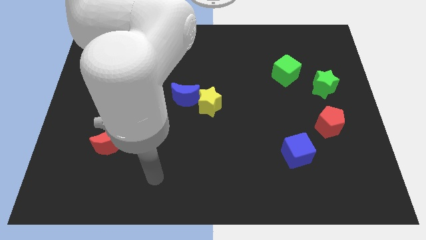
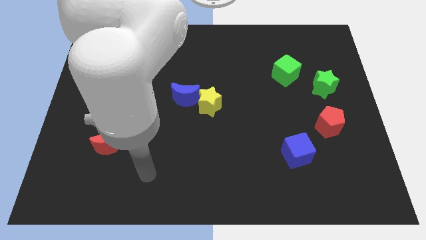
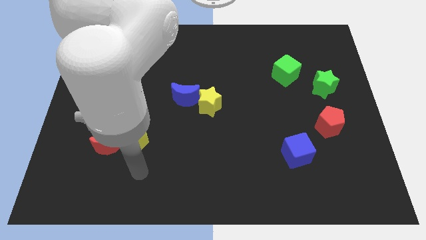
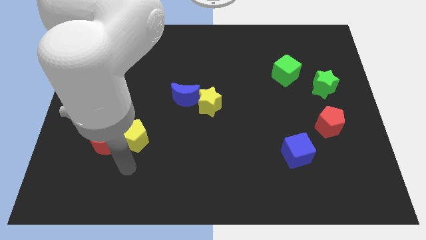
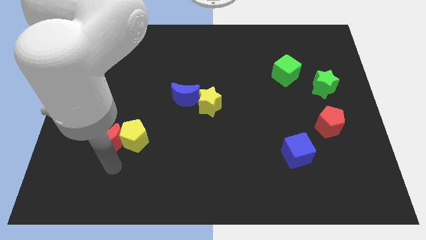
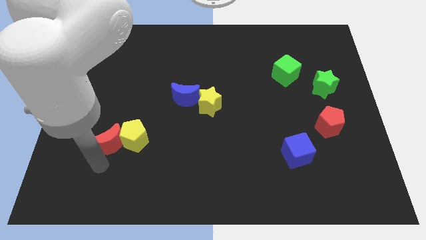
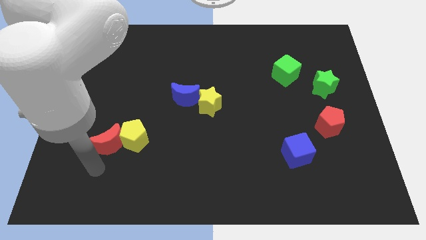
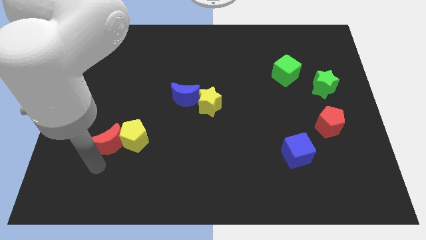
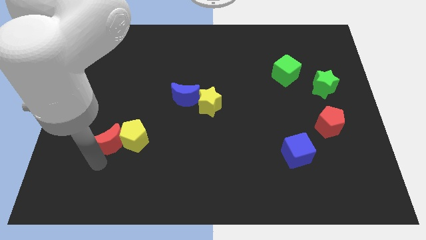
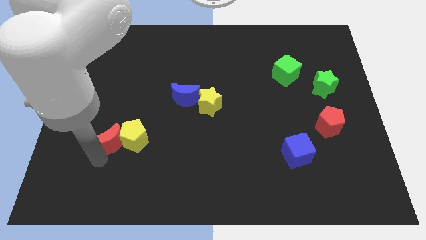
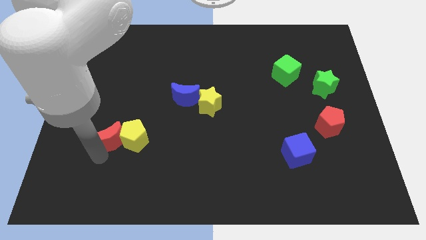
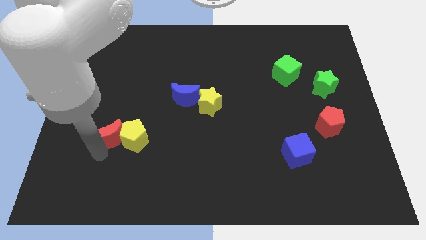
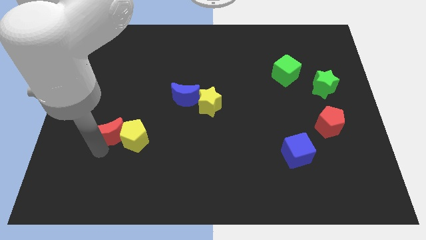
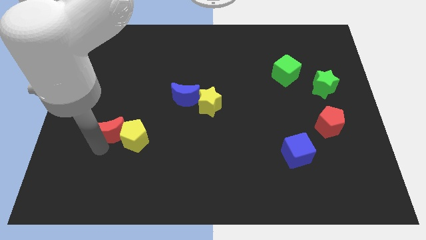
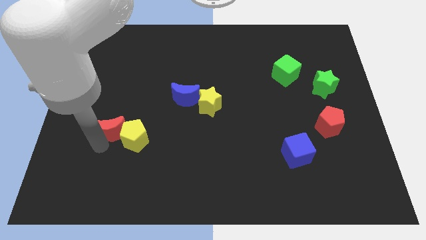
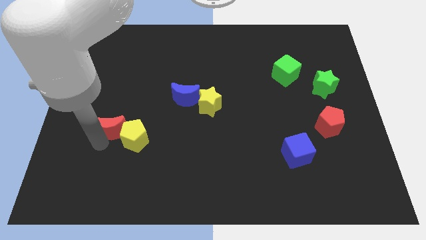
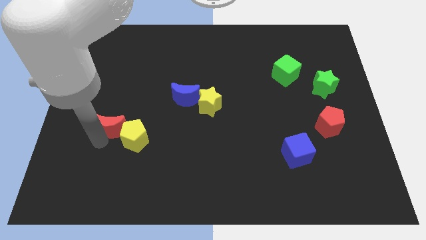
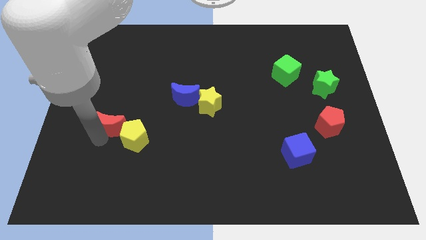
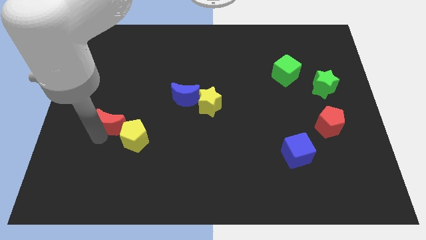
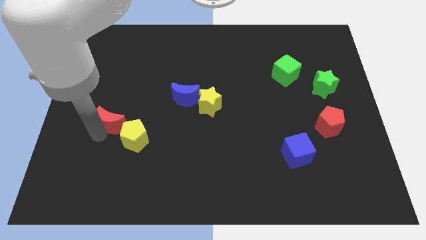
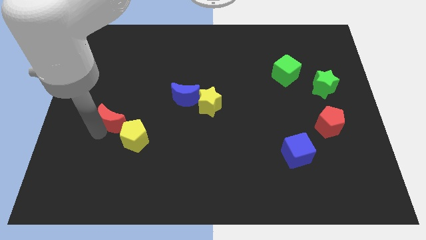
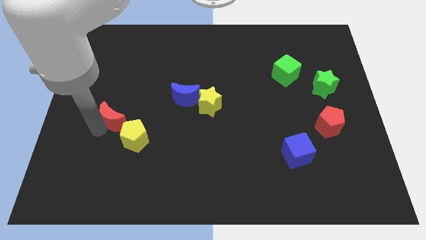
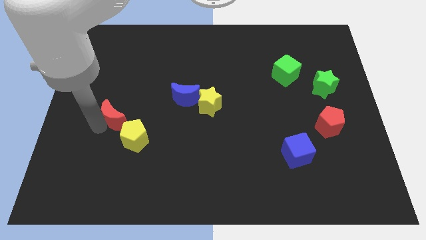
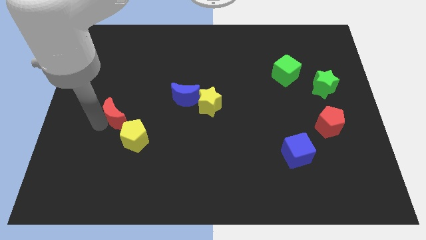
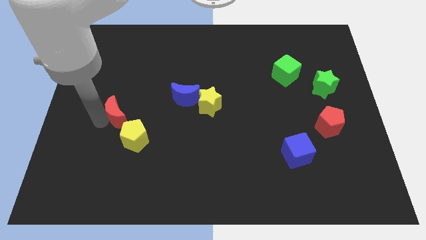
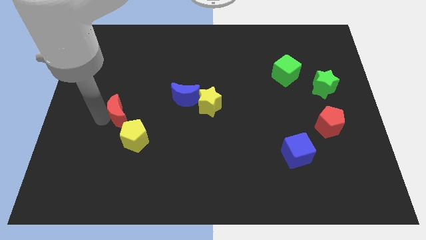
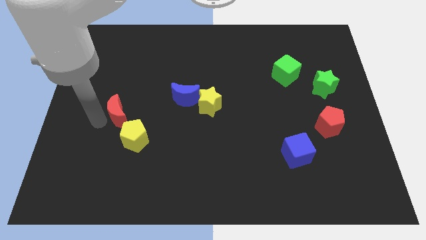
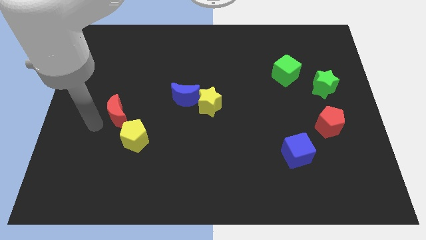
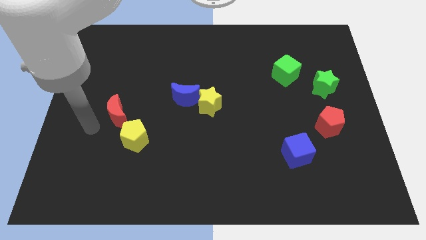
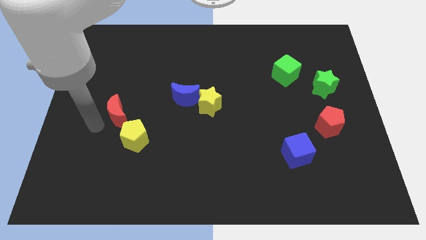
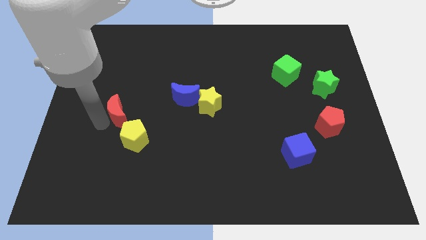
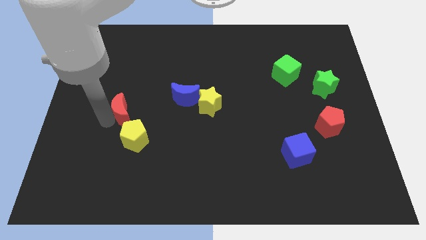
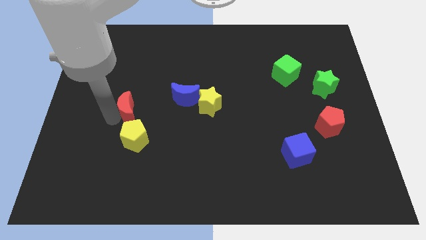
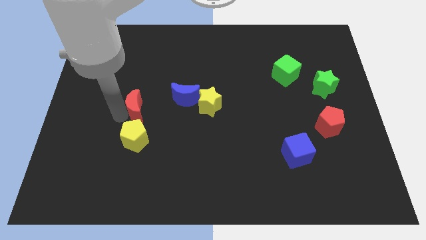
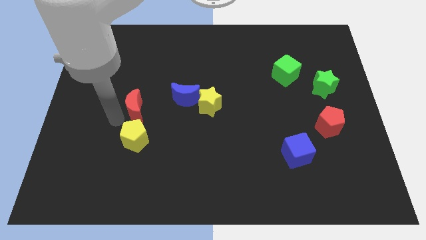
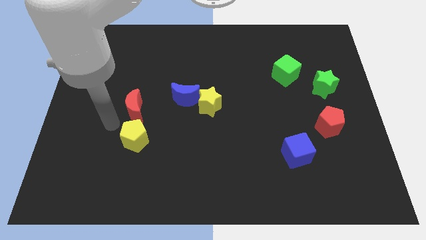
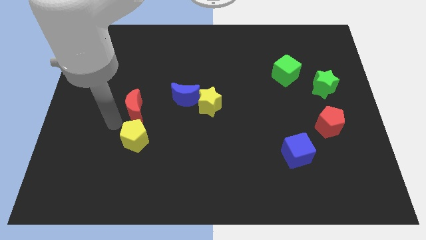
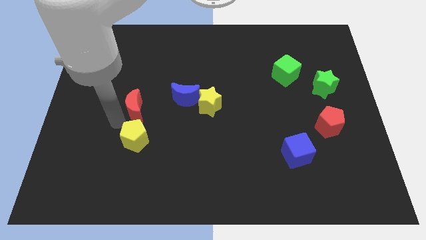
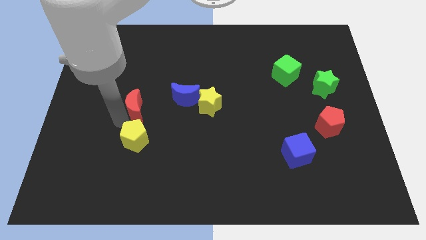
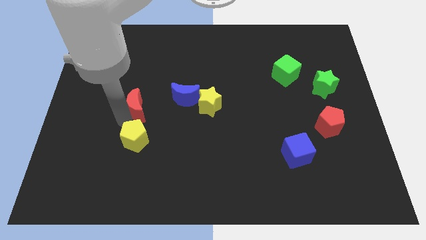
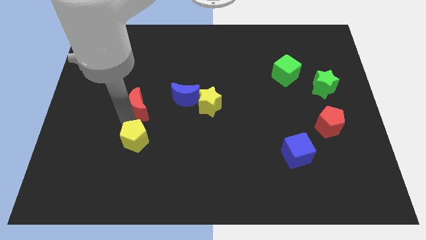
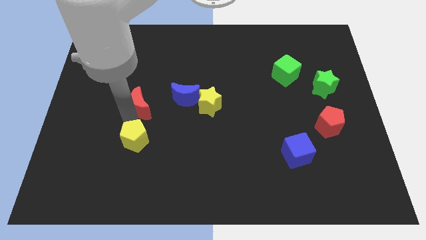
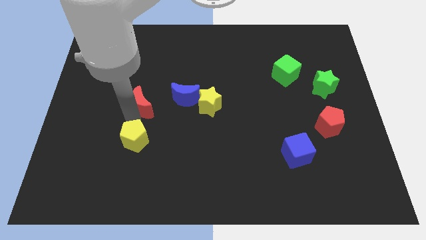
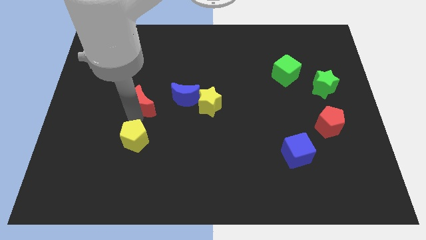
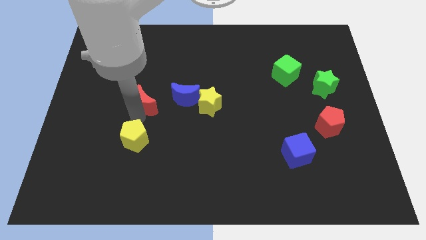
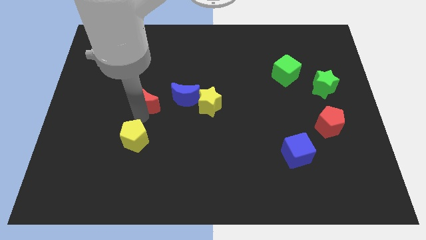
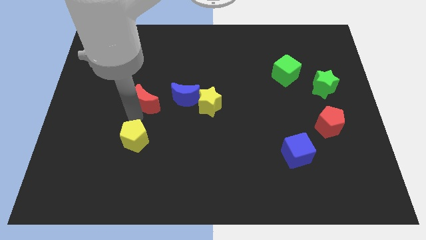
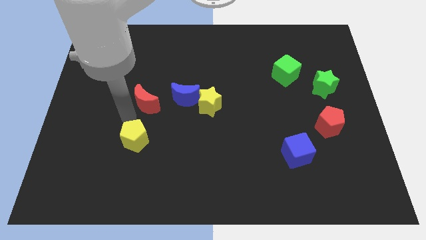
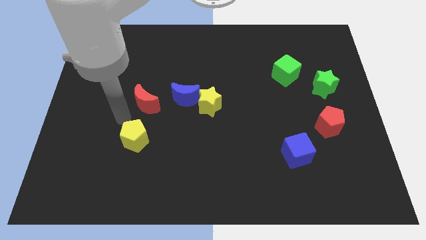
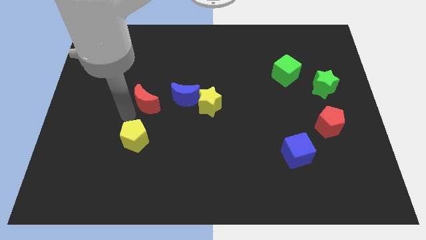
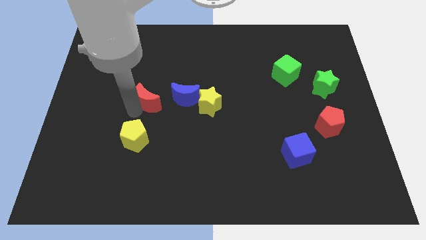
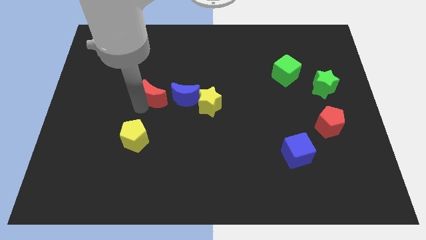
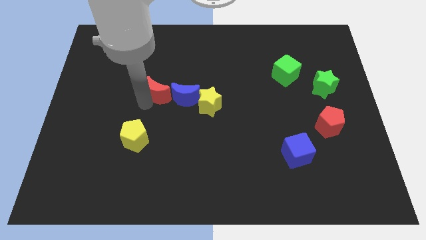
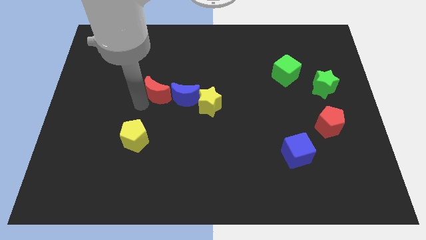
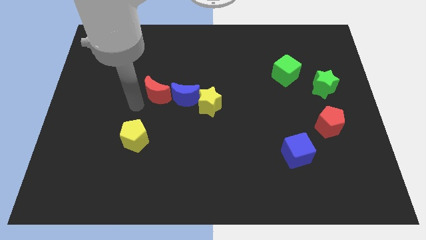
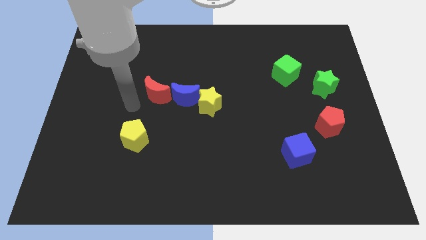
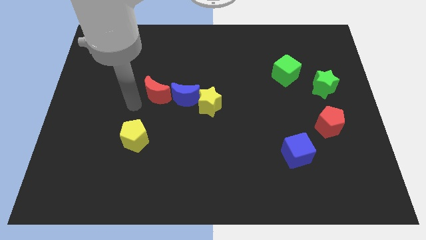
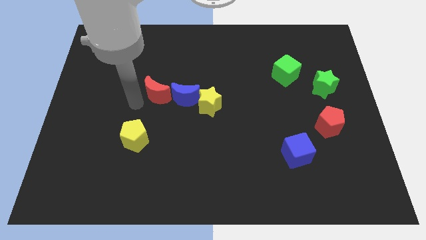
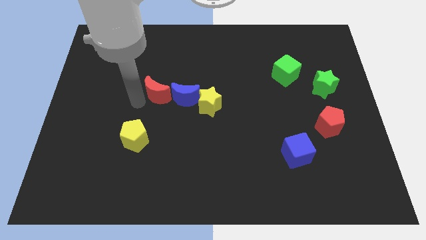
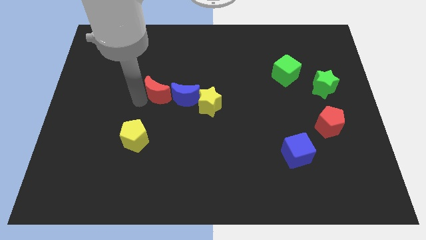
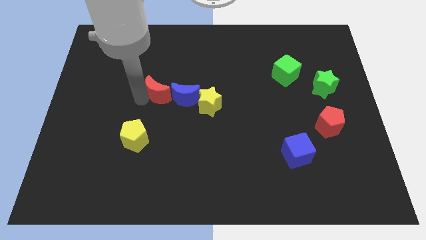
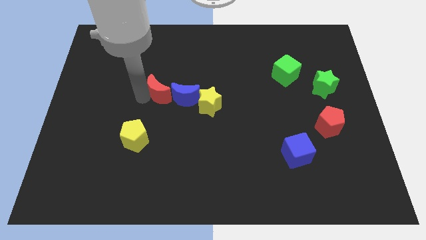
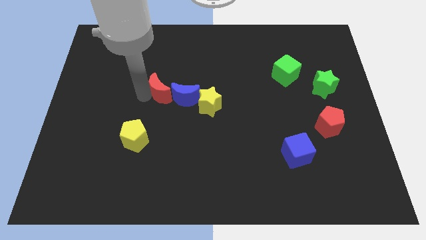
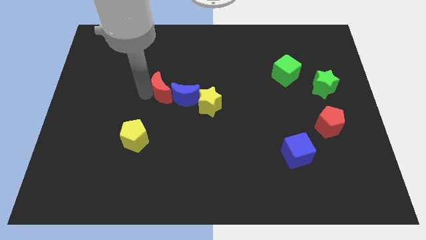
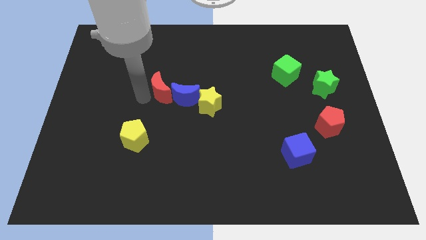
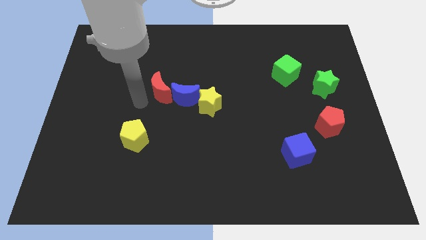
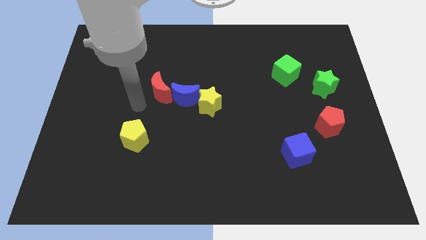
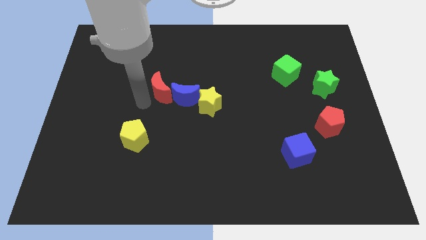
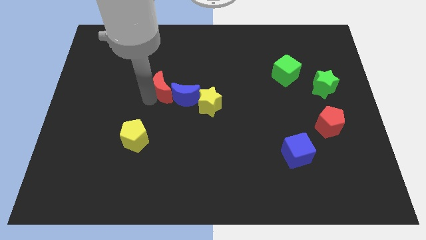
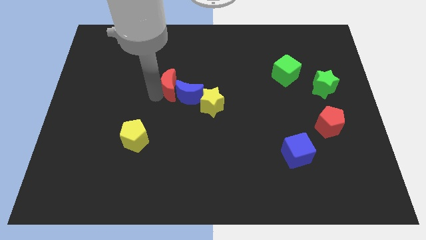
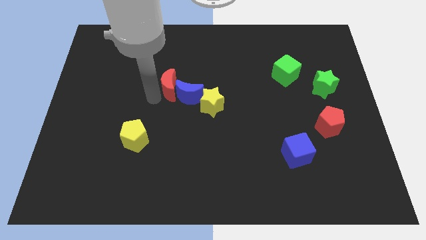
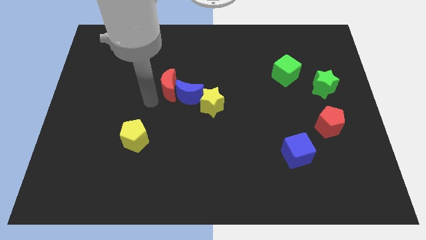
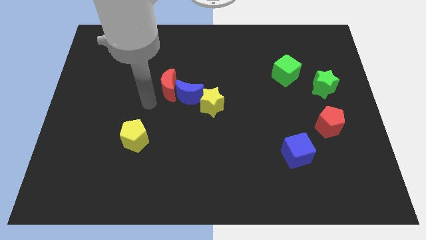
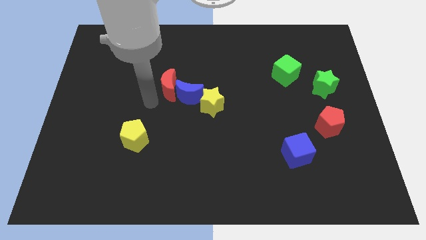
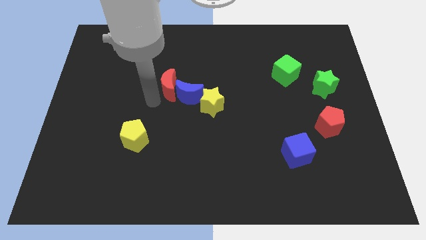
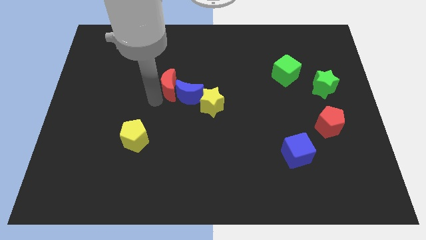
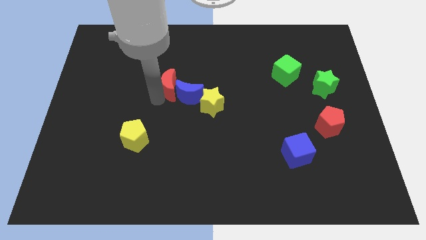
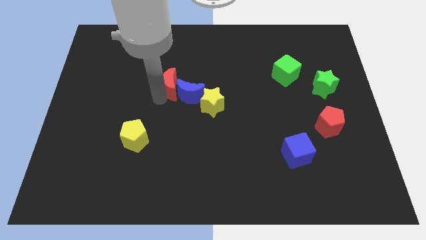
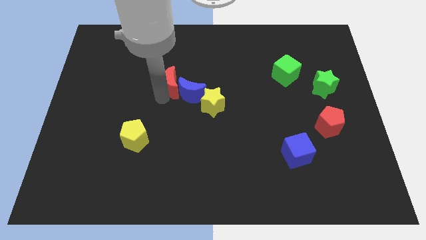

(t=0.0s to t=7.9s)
move the red moon diagonally up and to the right
